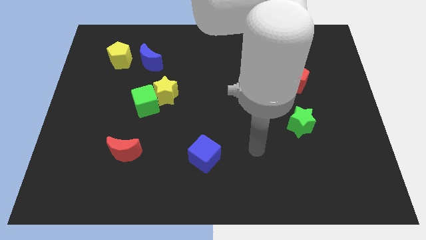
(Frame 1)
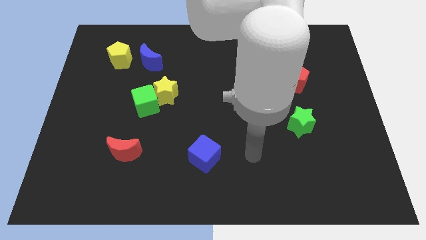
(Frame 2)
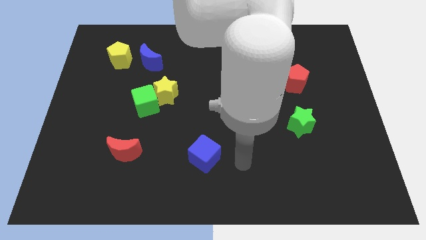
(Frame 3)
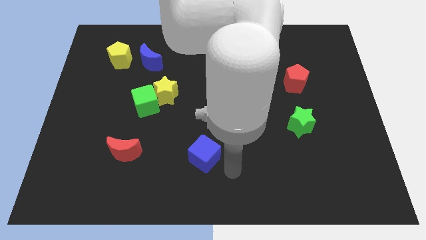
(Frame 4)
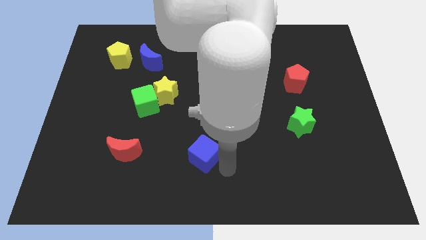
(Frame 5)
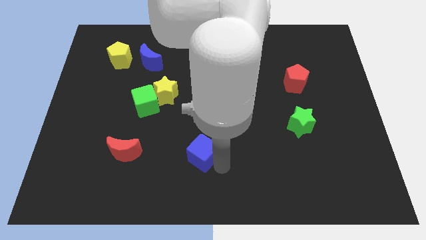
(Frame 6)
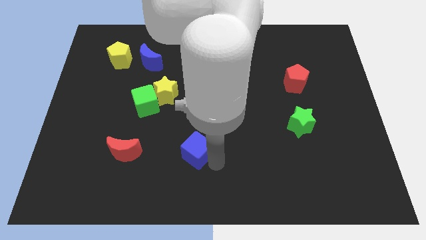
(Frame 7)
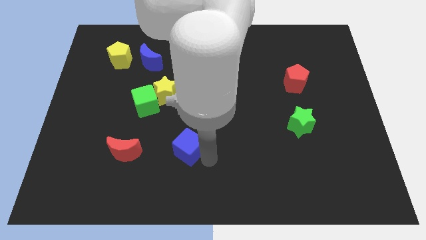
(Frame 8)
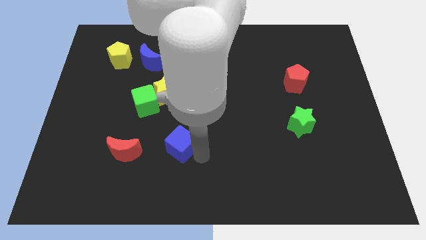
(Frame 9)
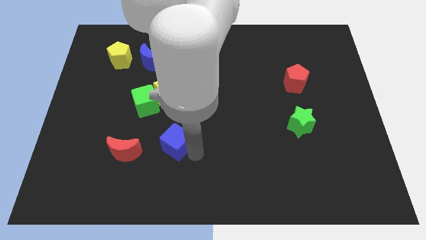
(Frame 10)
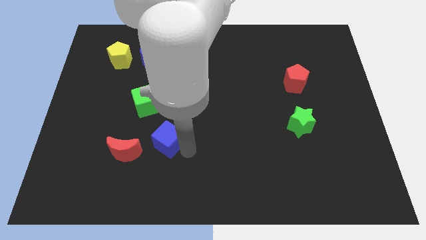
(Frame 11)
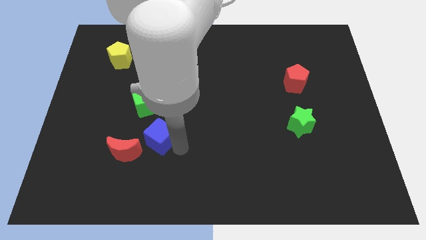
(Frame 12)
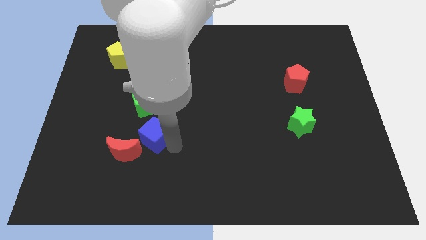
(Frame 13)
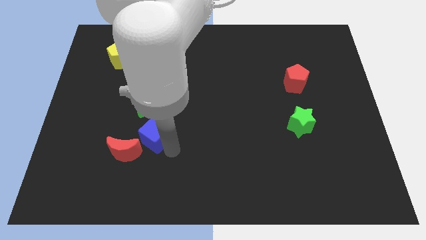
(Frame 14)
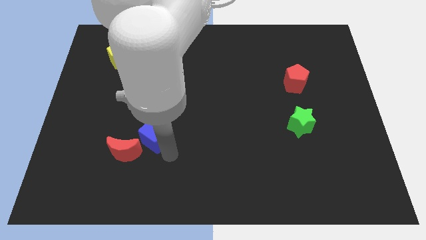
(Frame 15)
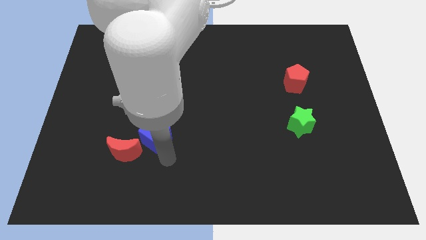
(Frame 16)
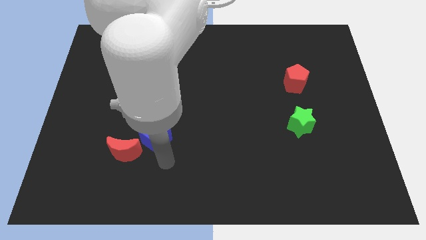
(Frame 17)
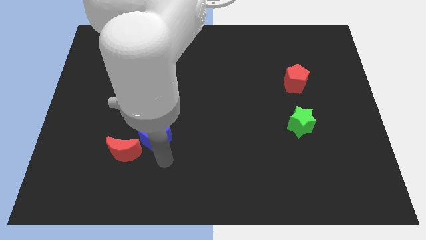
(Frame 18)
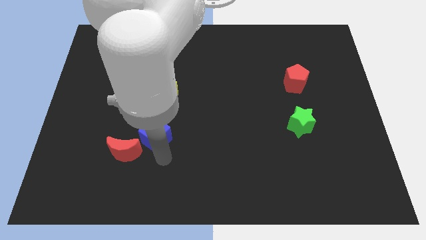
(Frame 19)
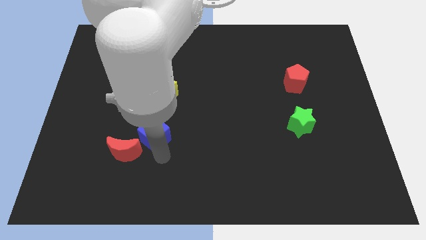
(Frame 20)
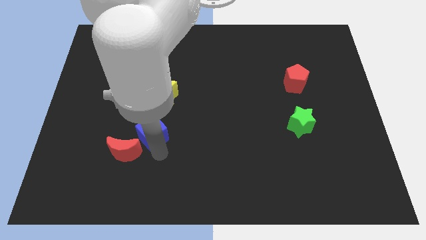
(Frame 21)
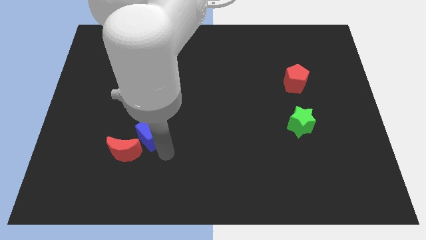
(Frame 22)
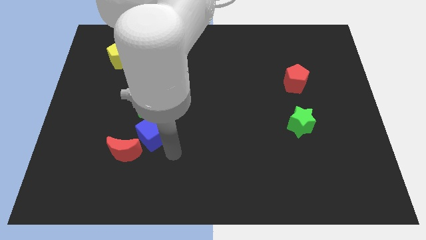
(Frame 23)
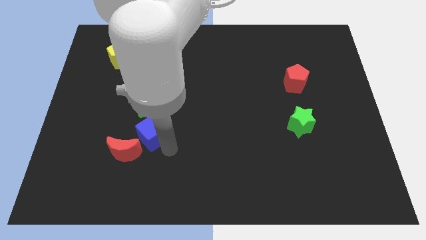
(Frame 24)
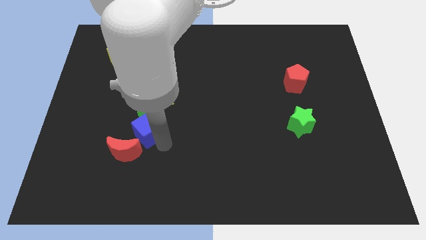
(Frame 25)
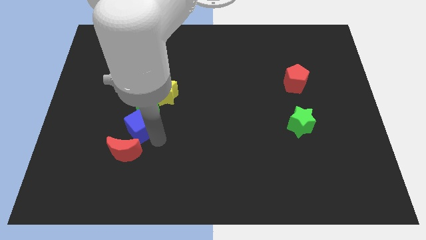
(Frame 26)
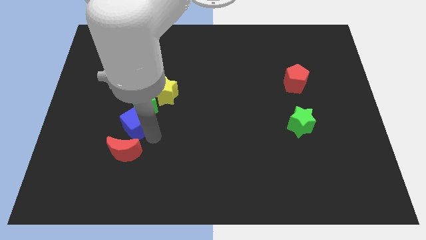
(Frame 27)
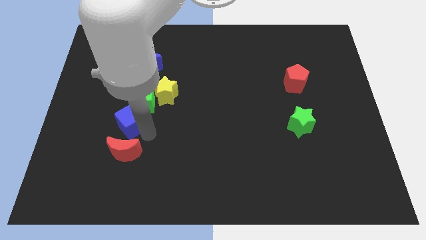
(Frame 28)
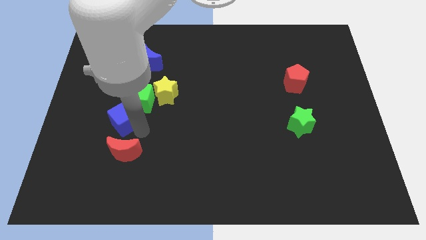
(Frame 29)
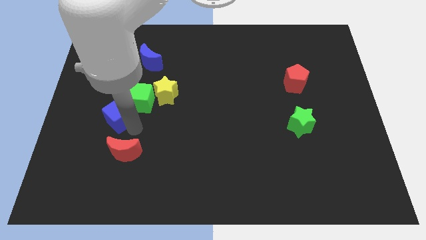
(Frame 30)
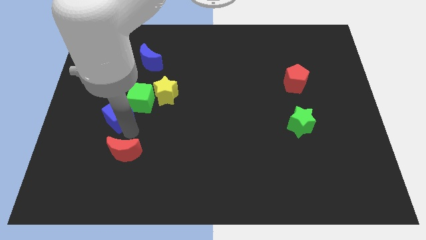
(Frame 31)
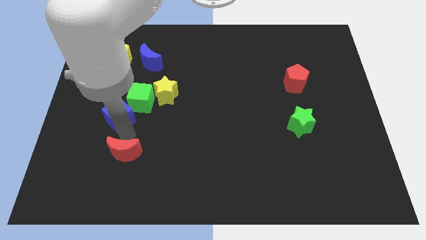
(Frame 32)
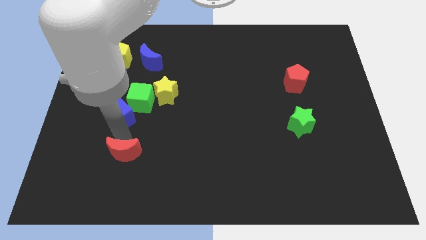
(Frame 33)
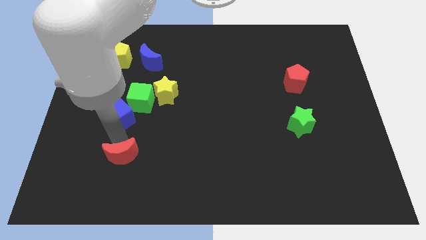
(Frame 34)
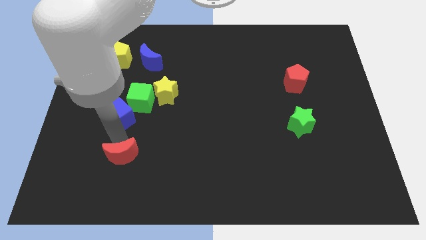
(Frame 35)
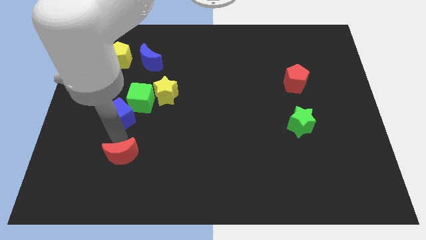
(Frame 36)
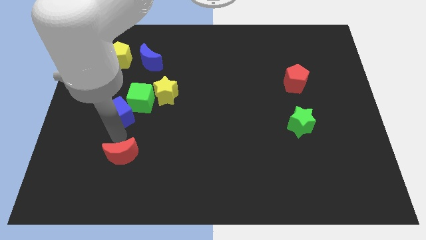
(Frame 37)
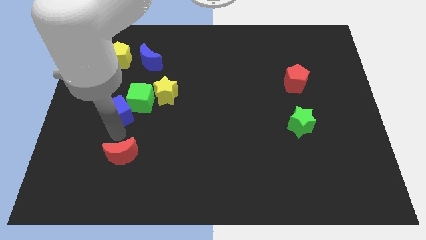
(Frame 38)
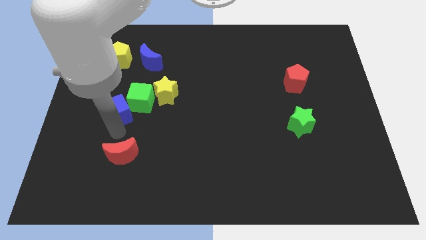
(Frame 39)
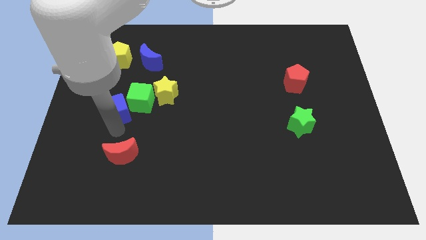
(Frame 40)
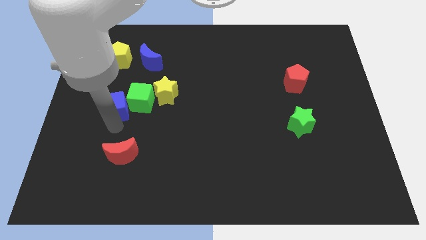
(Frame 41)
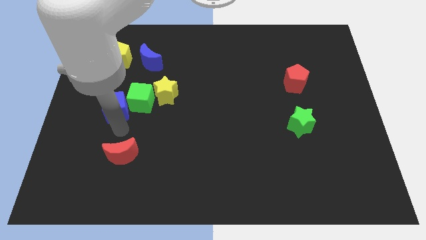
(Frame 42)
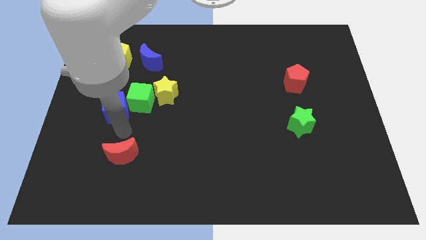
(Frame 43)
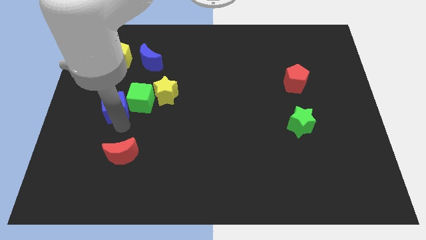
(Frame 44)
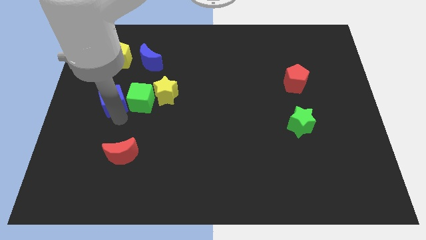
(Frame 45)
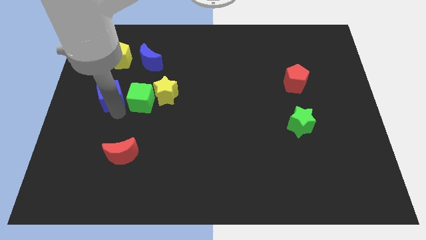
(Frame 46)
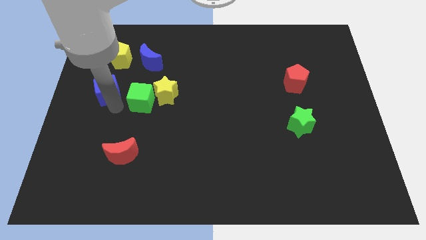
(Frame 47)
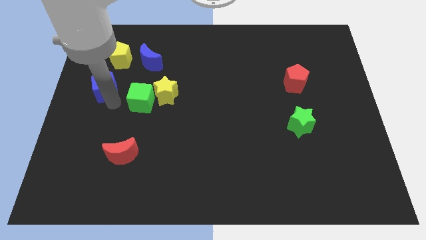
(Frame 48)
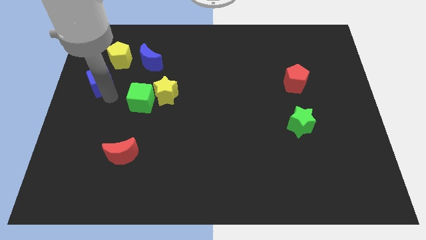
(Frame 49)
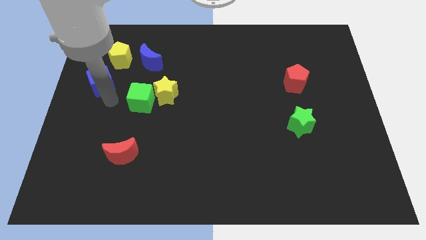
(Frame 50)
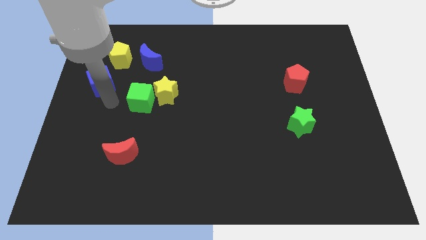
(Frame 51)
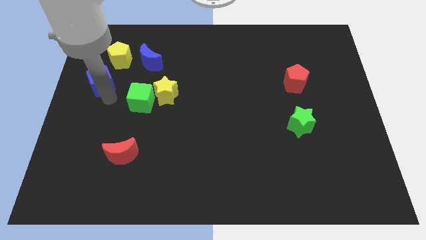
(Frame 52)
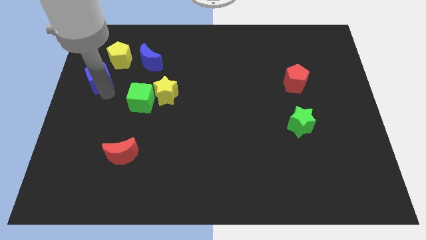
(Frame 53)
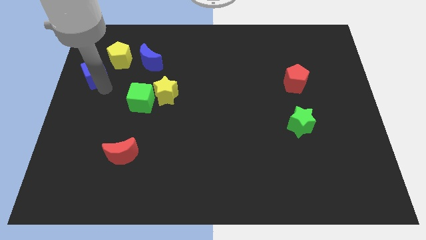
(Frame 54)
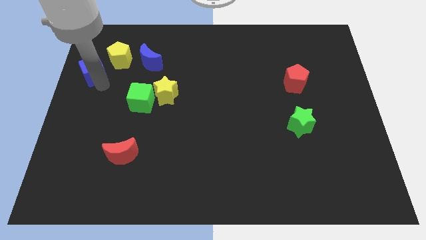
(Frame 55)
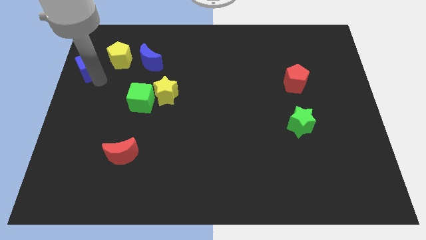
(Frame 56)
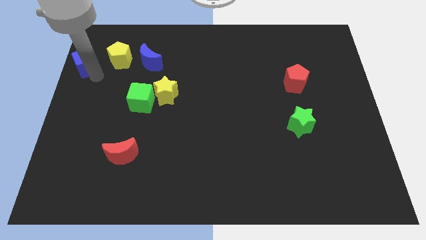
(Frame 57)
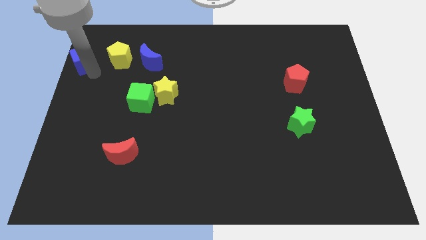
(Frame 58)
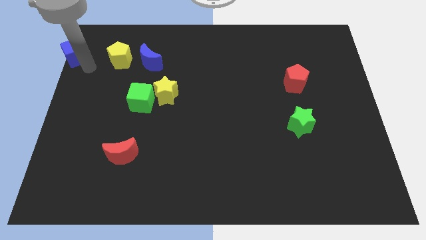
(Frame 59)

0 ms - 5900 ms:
slide the blue cube to the top left corner
